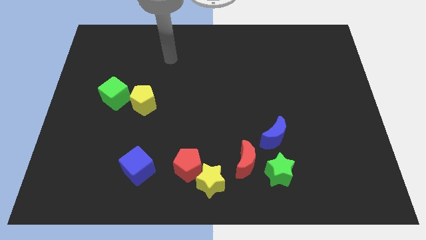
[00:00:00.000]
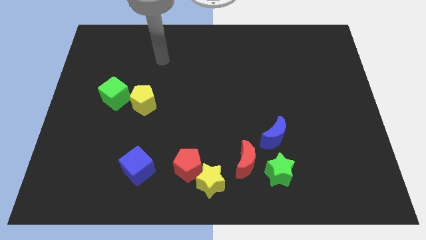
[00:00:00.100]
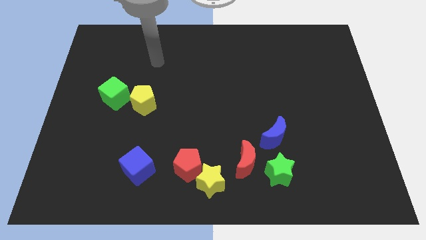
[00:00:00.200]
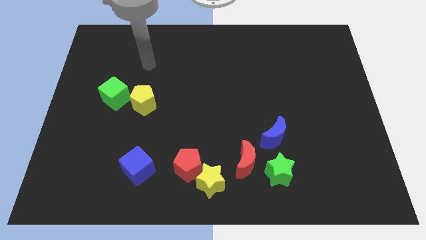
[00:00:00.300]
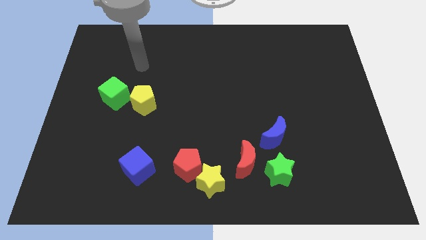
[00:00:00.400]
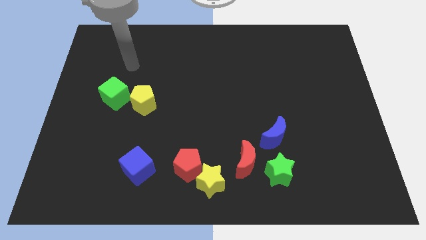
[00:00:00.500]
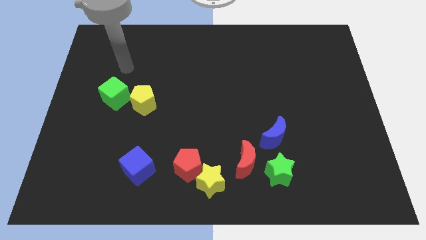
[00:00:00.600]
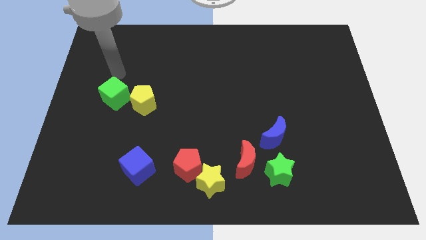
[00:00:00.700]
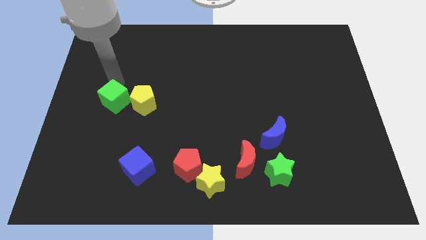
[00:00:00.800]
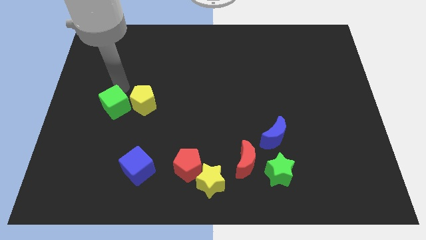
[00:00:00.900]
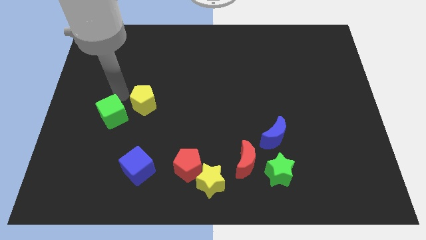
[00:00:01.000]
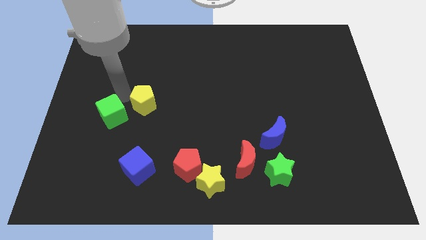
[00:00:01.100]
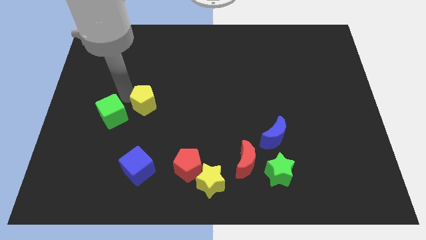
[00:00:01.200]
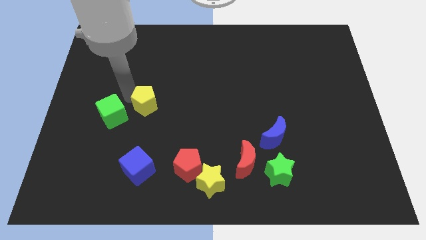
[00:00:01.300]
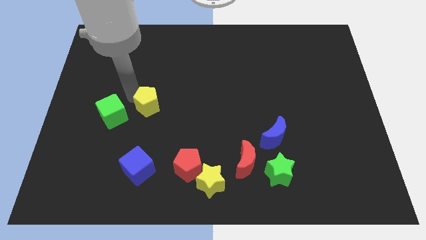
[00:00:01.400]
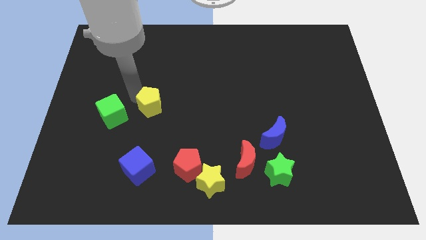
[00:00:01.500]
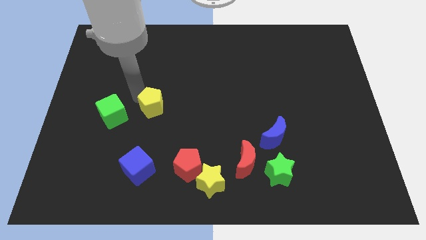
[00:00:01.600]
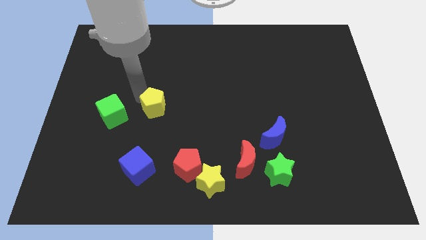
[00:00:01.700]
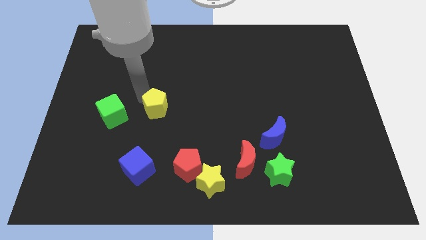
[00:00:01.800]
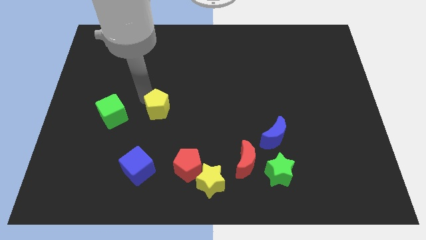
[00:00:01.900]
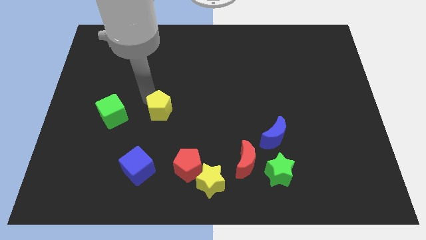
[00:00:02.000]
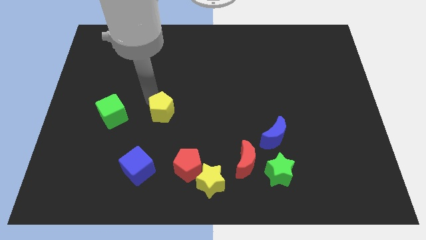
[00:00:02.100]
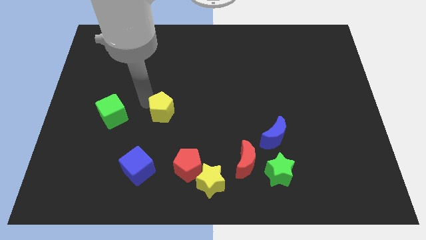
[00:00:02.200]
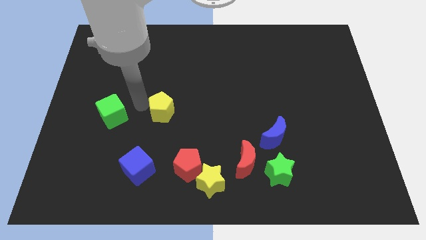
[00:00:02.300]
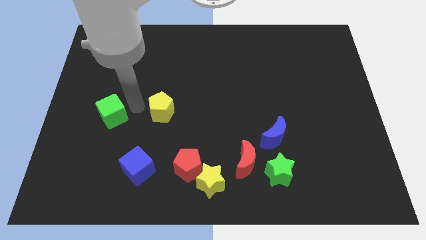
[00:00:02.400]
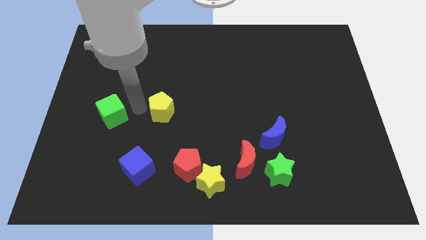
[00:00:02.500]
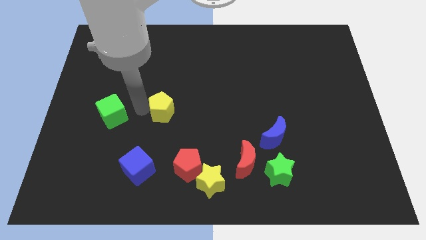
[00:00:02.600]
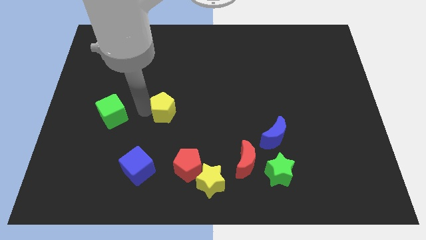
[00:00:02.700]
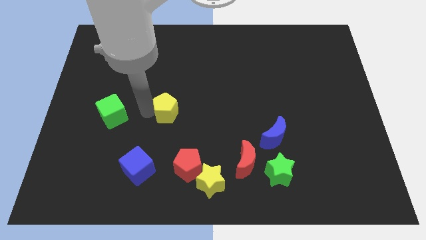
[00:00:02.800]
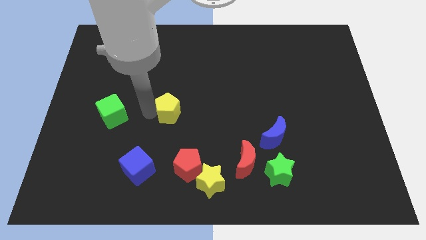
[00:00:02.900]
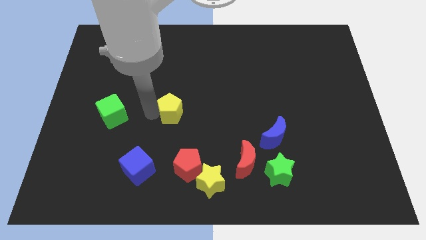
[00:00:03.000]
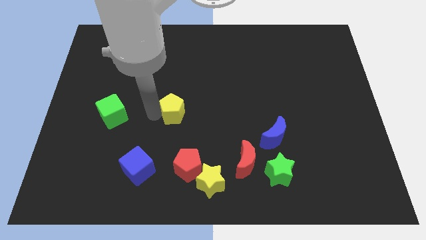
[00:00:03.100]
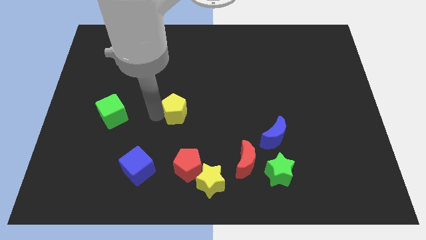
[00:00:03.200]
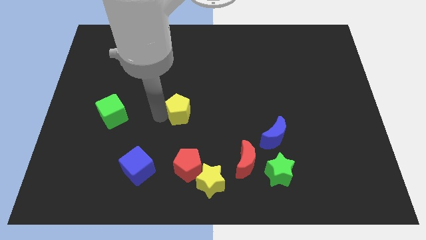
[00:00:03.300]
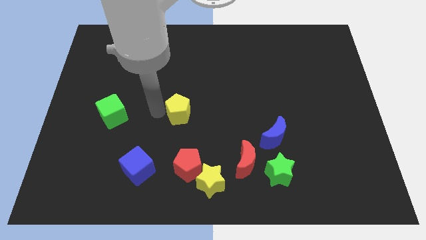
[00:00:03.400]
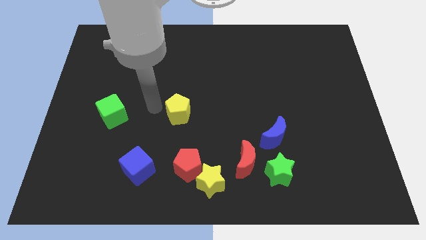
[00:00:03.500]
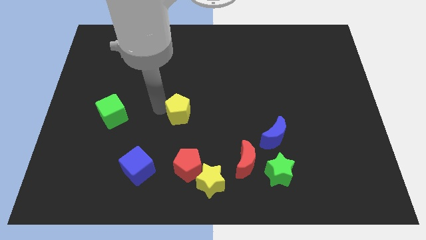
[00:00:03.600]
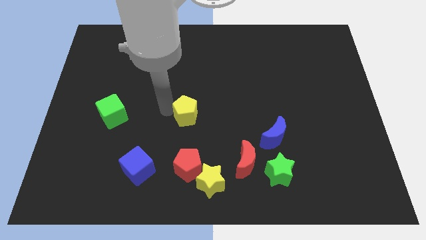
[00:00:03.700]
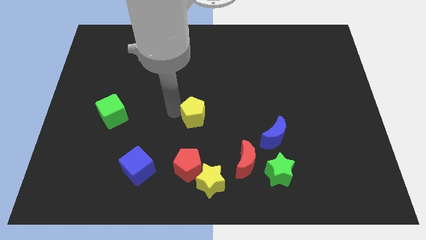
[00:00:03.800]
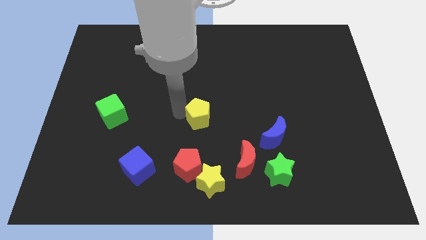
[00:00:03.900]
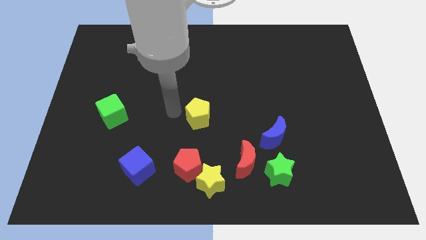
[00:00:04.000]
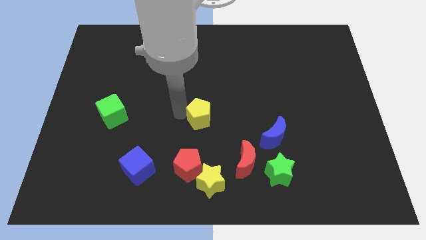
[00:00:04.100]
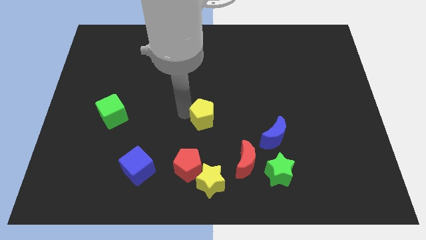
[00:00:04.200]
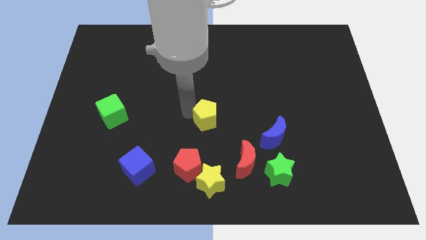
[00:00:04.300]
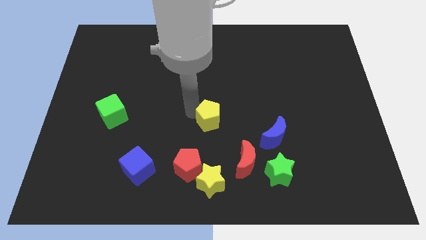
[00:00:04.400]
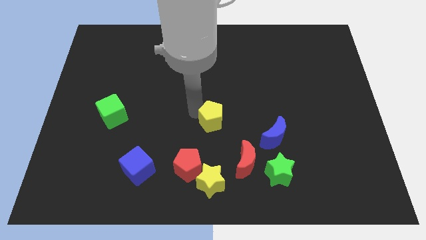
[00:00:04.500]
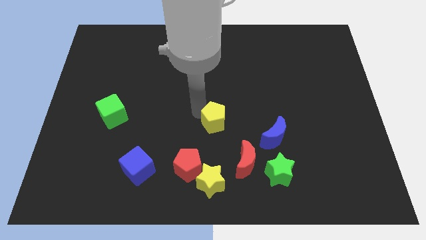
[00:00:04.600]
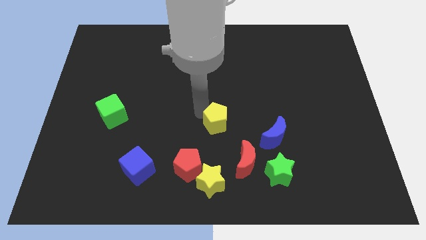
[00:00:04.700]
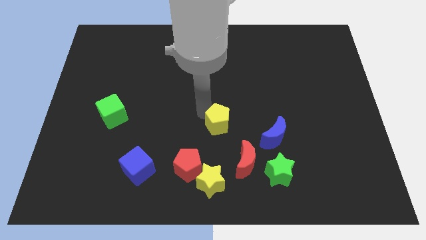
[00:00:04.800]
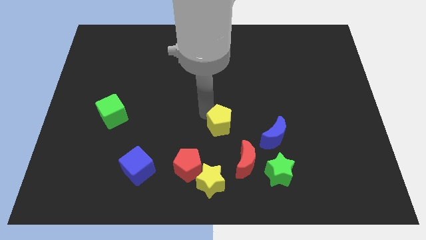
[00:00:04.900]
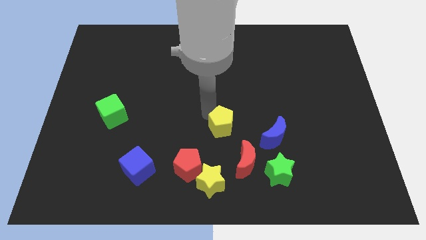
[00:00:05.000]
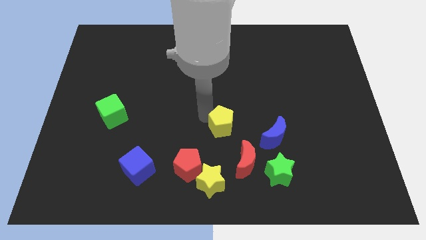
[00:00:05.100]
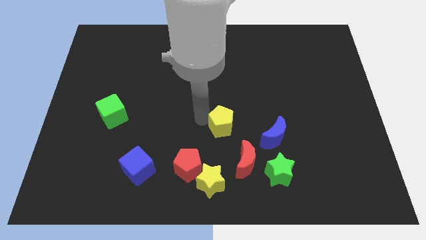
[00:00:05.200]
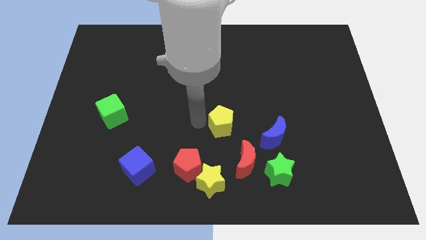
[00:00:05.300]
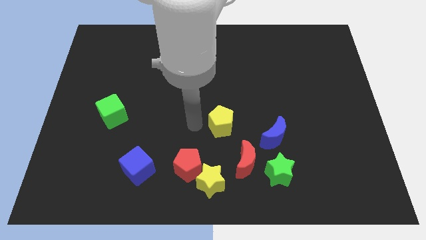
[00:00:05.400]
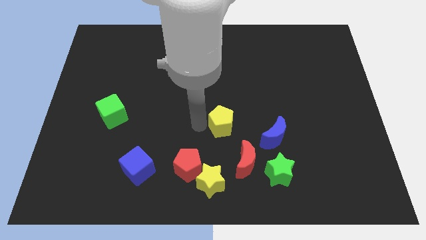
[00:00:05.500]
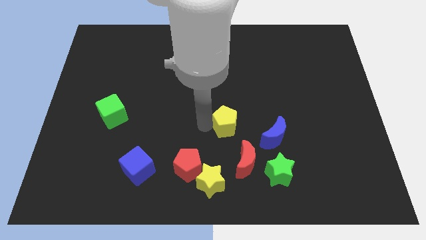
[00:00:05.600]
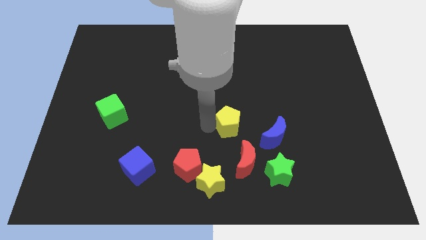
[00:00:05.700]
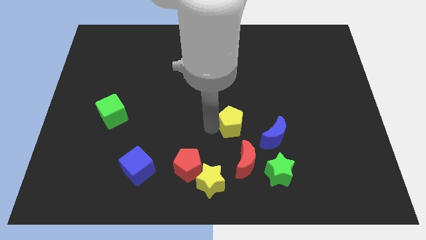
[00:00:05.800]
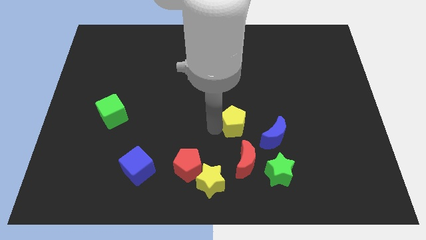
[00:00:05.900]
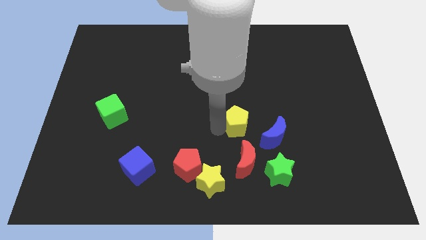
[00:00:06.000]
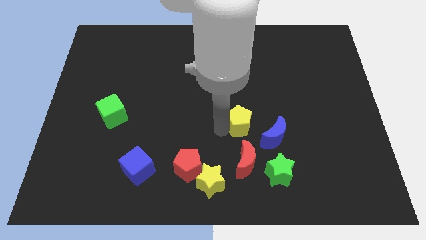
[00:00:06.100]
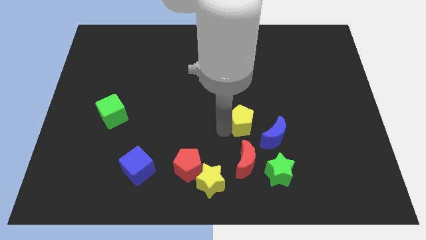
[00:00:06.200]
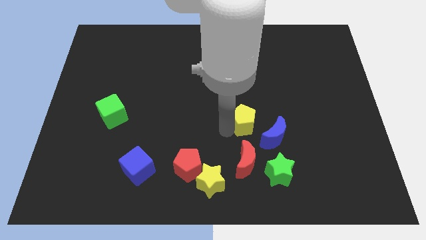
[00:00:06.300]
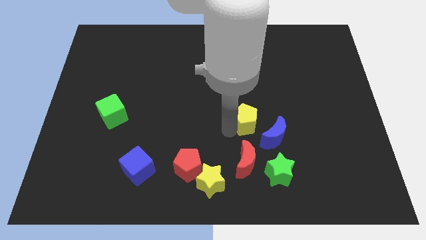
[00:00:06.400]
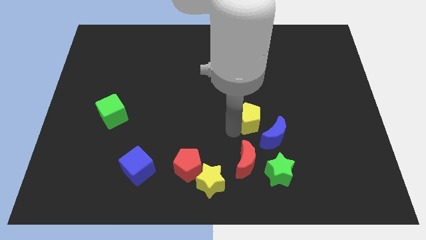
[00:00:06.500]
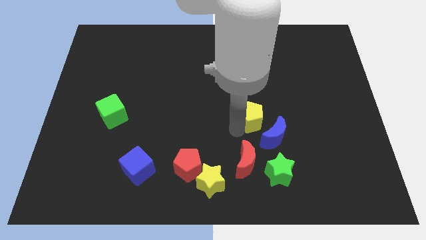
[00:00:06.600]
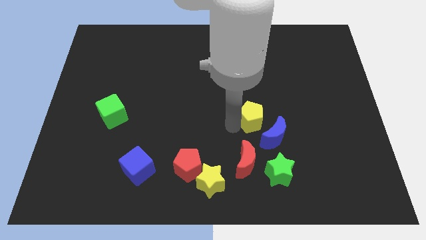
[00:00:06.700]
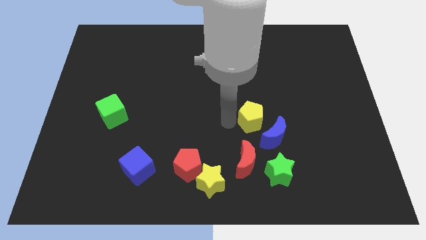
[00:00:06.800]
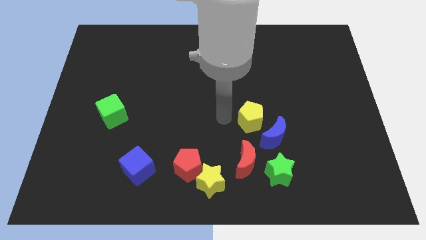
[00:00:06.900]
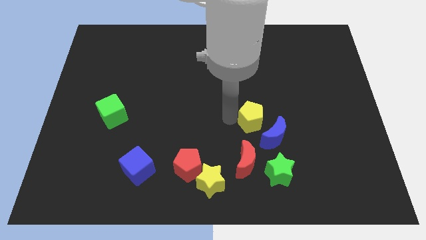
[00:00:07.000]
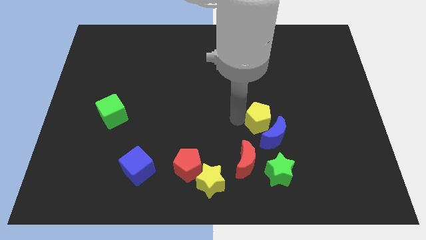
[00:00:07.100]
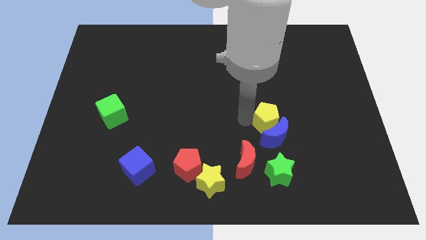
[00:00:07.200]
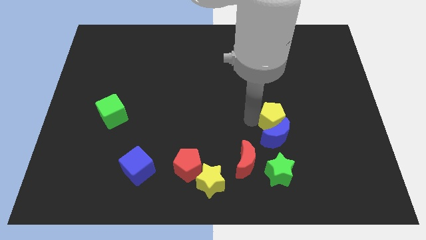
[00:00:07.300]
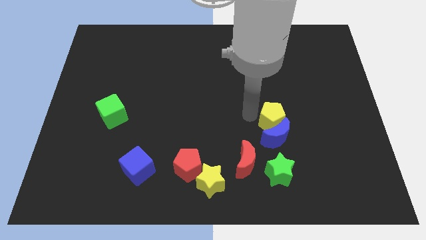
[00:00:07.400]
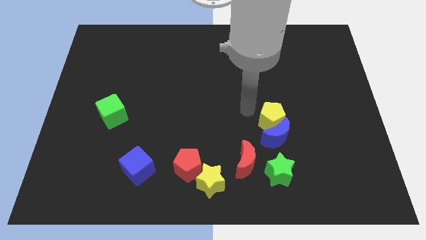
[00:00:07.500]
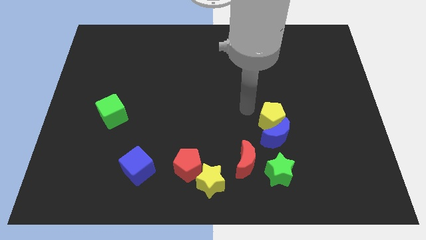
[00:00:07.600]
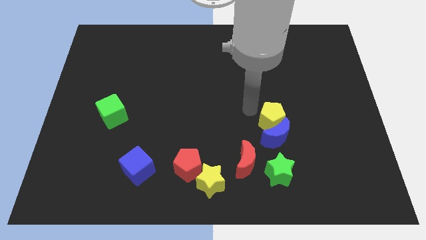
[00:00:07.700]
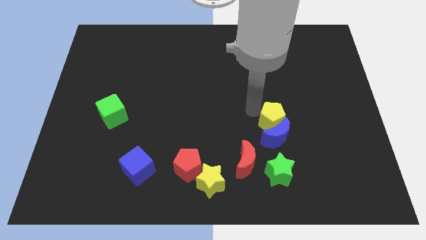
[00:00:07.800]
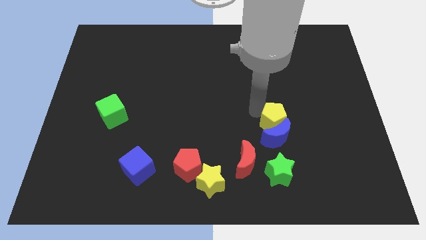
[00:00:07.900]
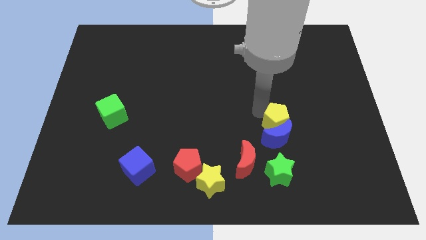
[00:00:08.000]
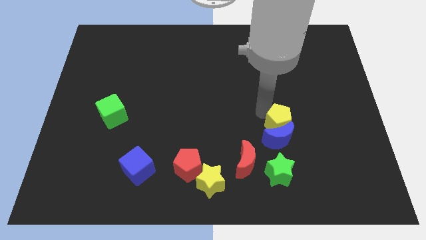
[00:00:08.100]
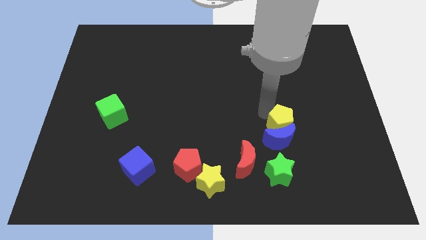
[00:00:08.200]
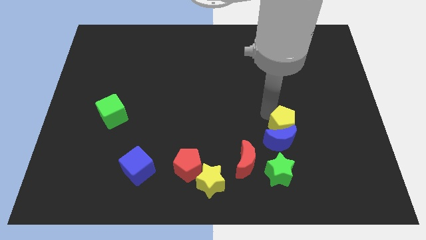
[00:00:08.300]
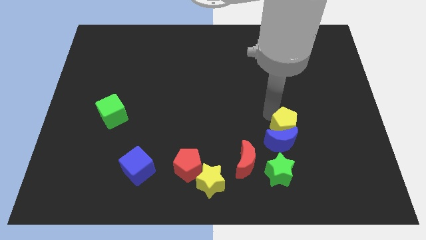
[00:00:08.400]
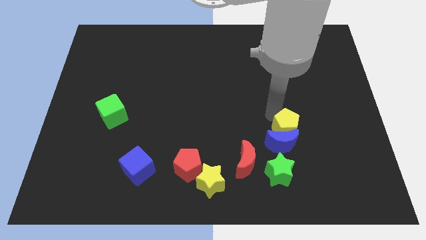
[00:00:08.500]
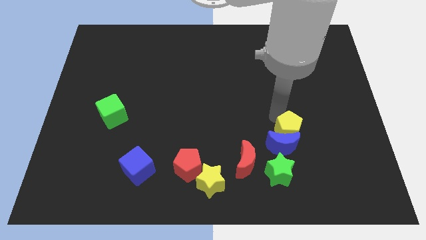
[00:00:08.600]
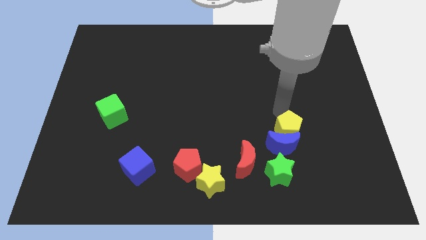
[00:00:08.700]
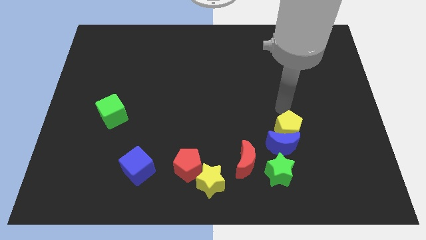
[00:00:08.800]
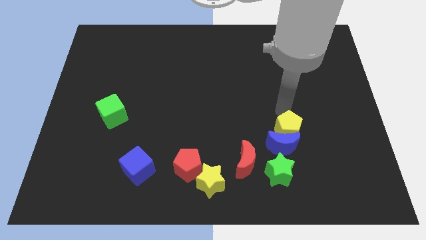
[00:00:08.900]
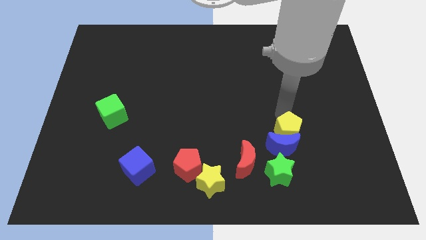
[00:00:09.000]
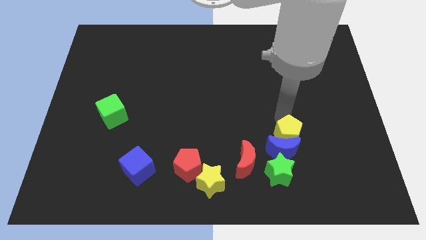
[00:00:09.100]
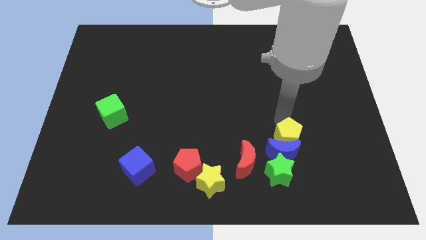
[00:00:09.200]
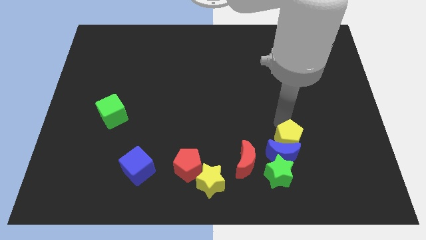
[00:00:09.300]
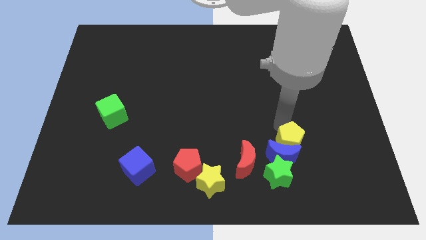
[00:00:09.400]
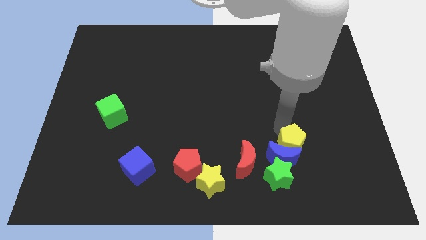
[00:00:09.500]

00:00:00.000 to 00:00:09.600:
put the yellow pentagon right of the red moon
